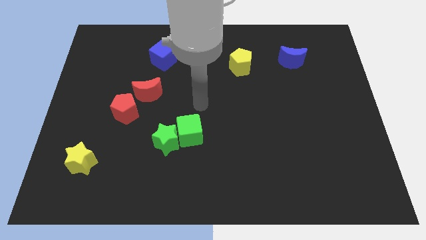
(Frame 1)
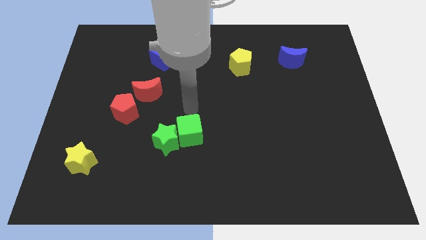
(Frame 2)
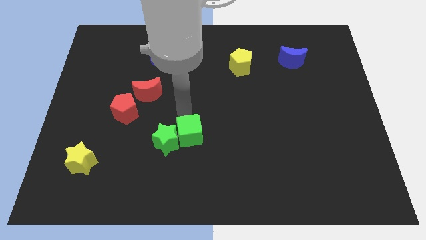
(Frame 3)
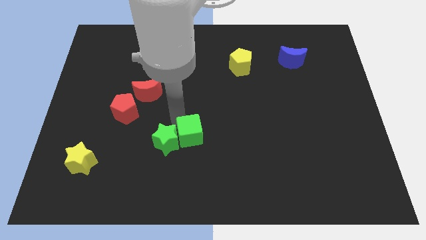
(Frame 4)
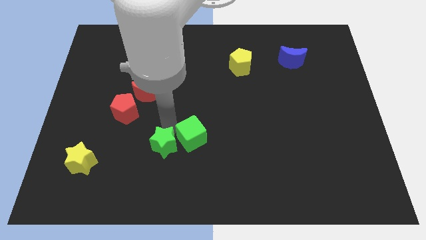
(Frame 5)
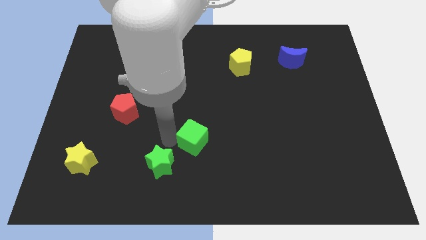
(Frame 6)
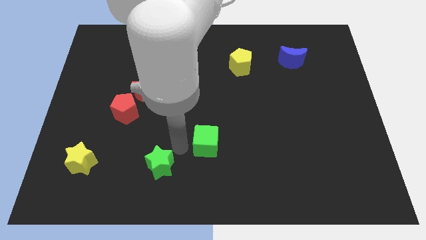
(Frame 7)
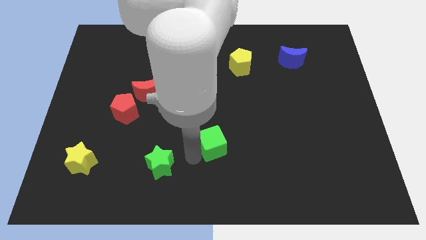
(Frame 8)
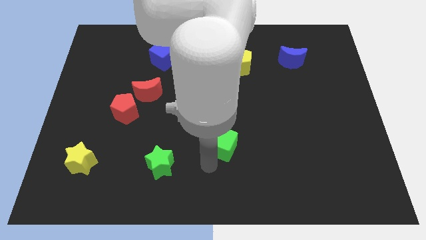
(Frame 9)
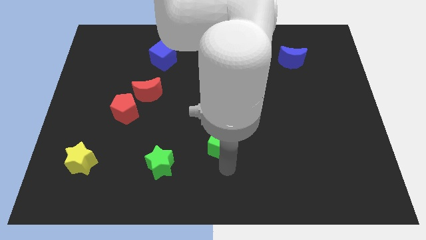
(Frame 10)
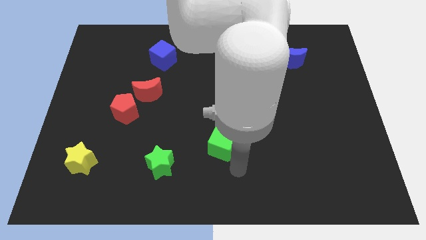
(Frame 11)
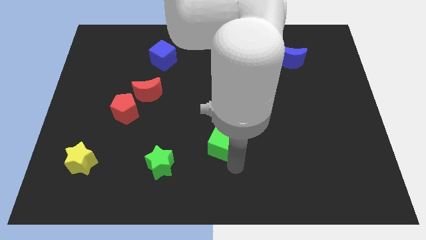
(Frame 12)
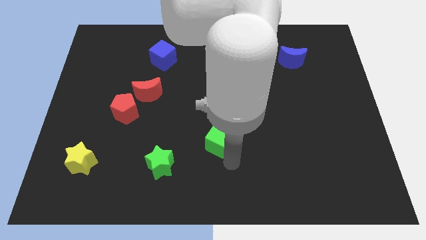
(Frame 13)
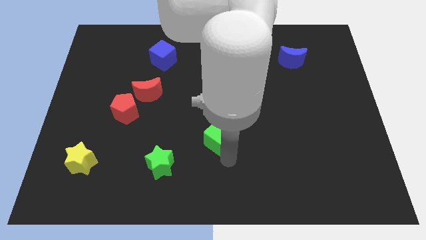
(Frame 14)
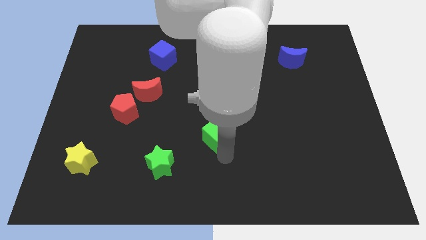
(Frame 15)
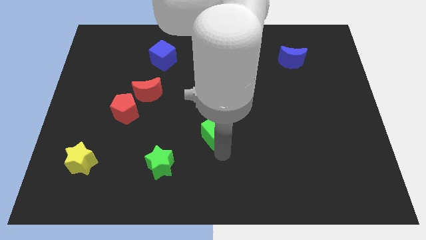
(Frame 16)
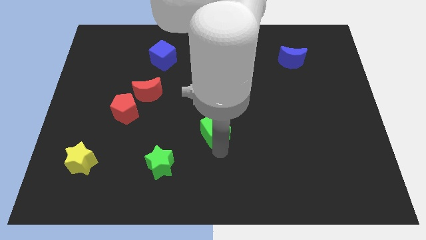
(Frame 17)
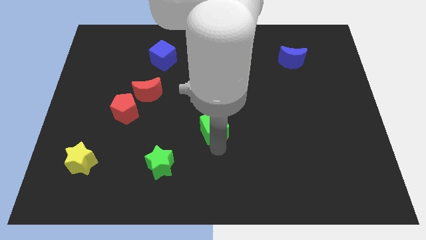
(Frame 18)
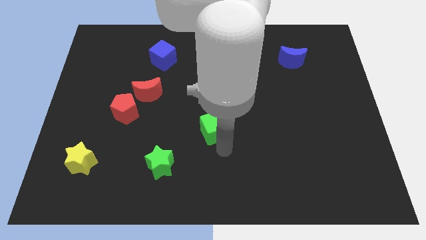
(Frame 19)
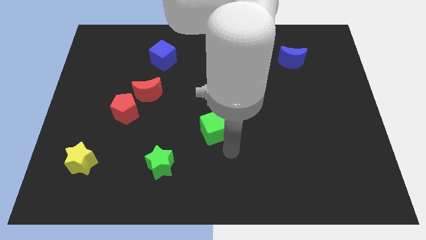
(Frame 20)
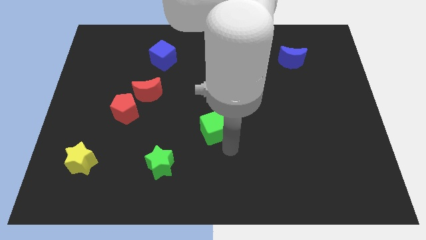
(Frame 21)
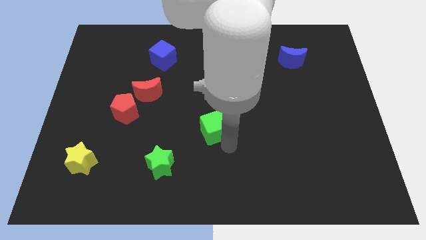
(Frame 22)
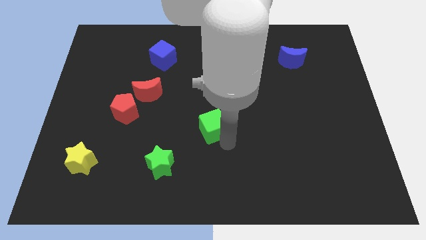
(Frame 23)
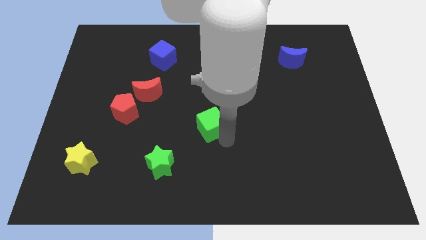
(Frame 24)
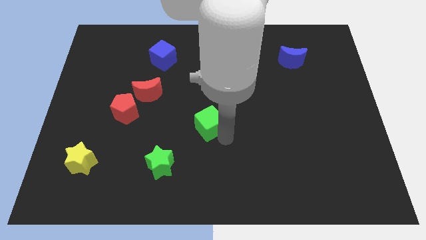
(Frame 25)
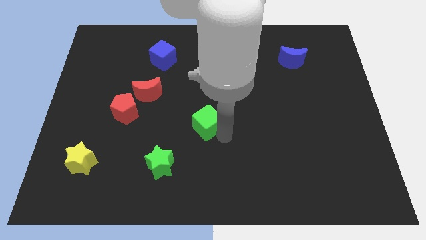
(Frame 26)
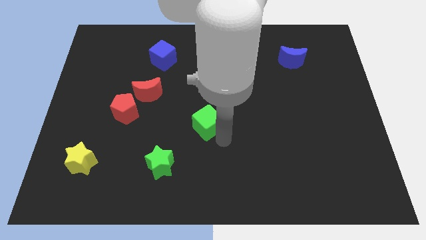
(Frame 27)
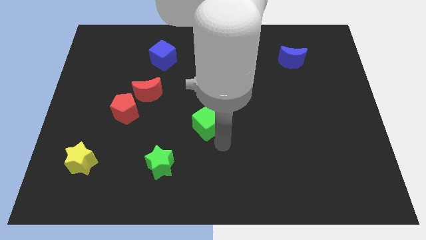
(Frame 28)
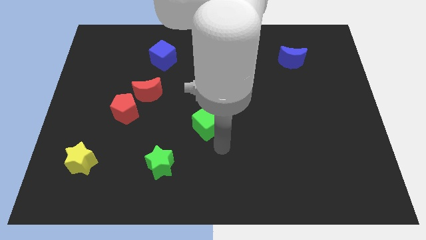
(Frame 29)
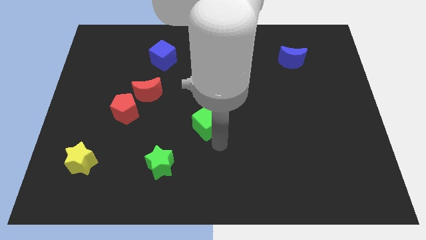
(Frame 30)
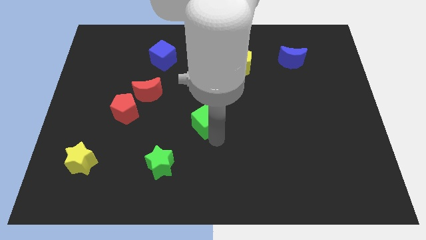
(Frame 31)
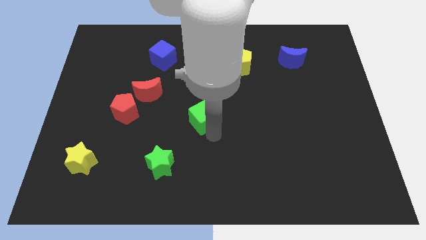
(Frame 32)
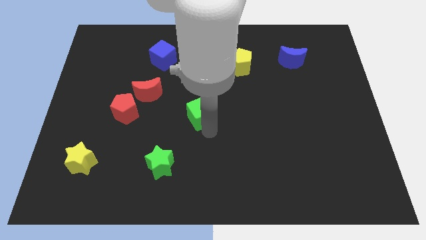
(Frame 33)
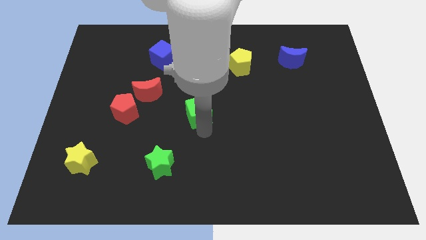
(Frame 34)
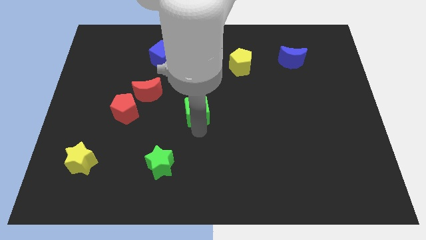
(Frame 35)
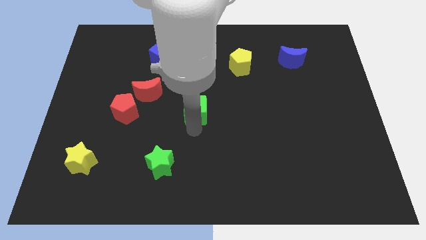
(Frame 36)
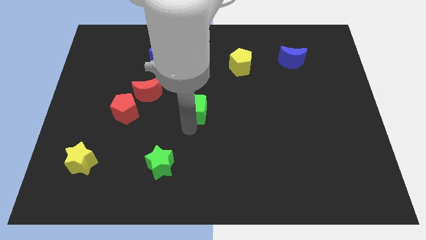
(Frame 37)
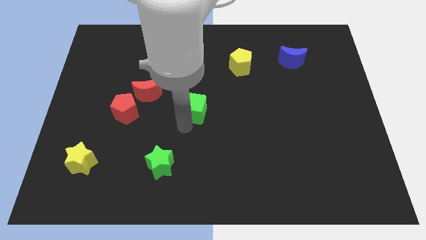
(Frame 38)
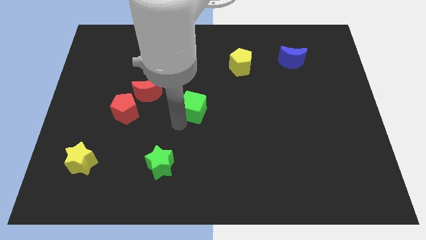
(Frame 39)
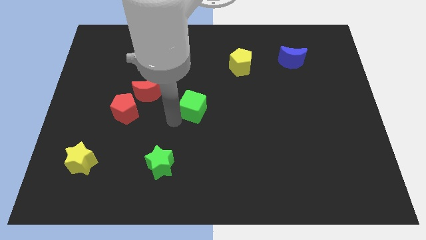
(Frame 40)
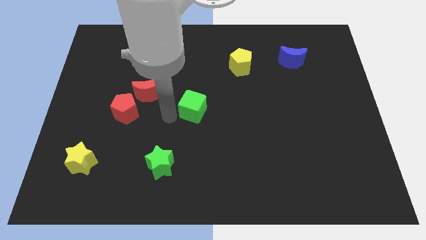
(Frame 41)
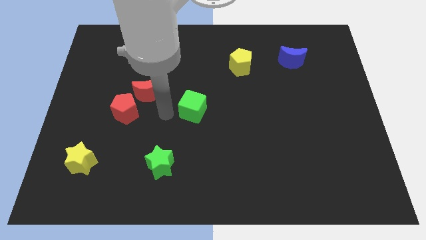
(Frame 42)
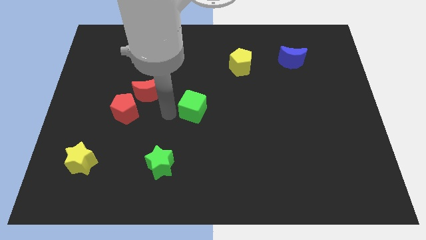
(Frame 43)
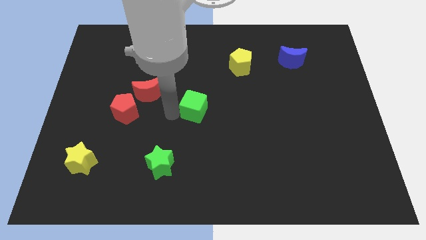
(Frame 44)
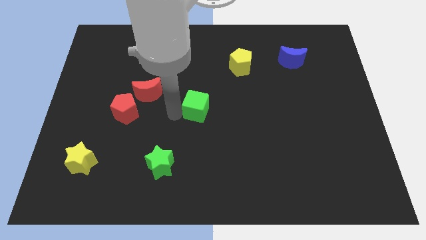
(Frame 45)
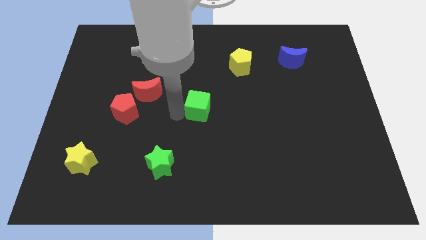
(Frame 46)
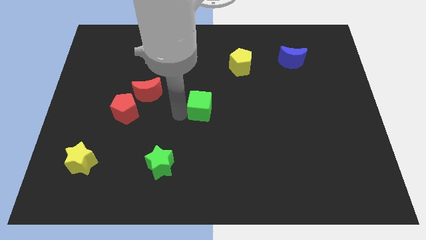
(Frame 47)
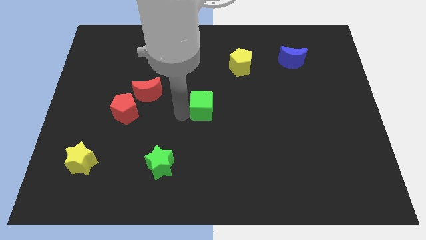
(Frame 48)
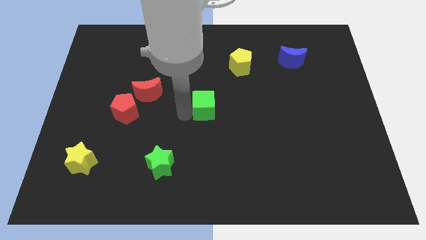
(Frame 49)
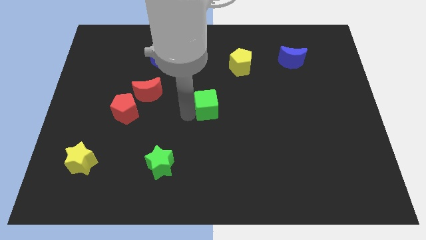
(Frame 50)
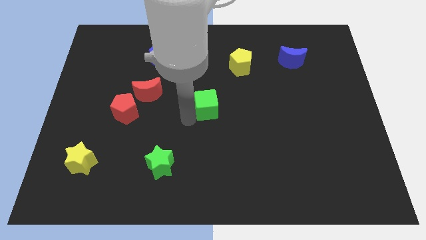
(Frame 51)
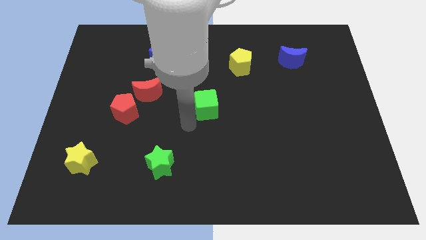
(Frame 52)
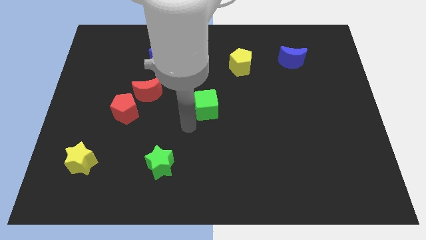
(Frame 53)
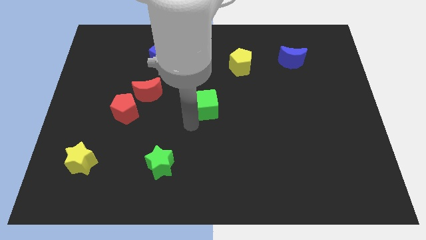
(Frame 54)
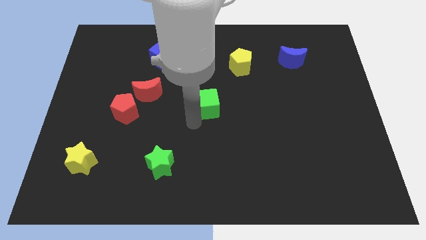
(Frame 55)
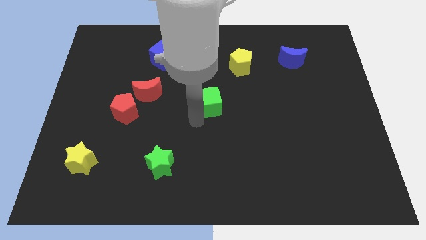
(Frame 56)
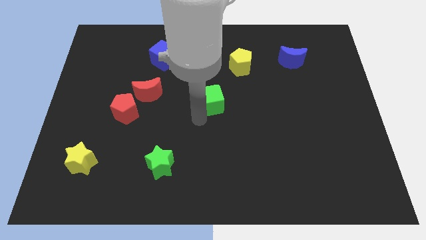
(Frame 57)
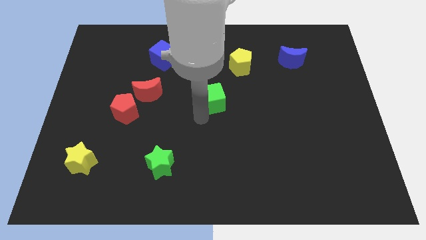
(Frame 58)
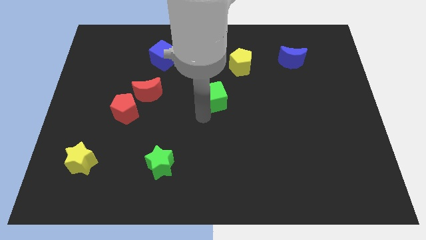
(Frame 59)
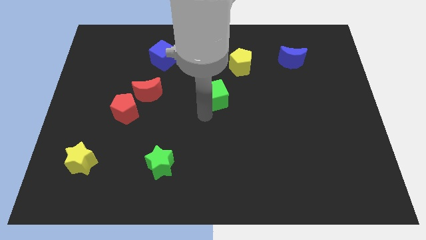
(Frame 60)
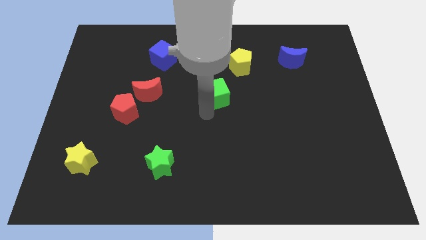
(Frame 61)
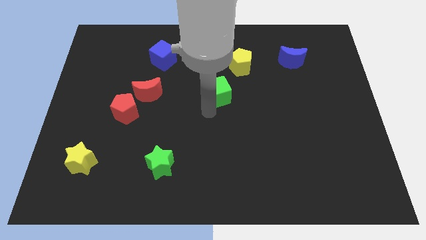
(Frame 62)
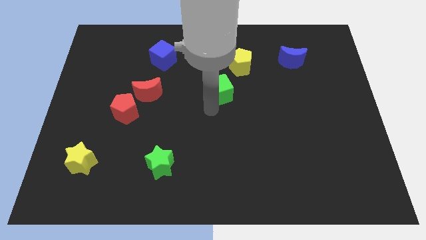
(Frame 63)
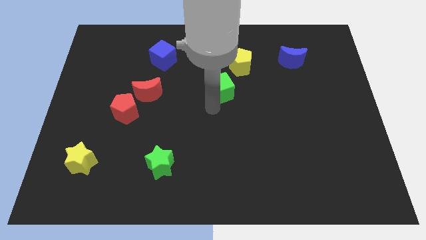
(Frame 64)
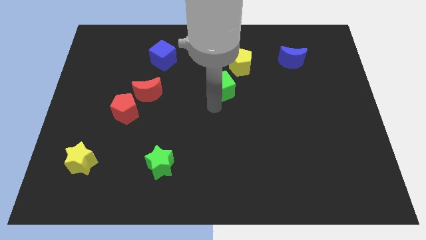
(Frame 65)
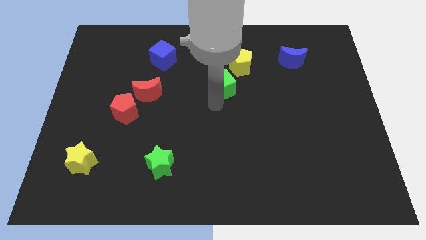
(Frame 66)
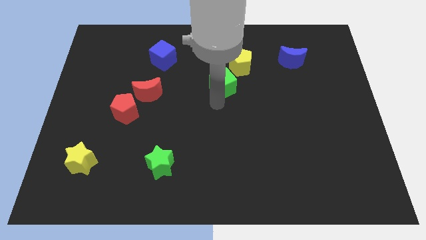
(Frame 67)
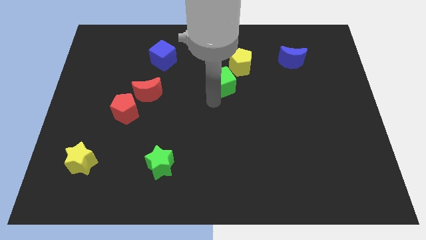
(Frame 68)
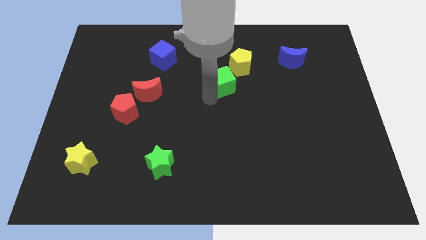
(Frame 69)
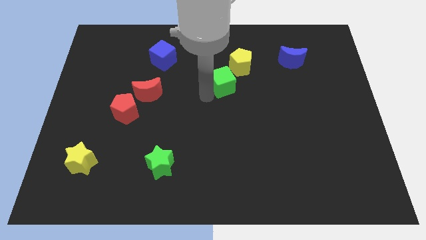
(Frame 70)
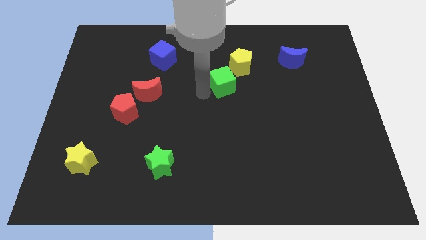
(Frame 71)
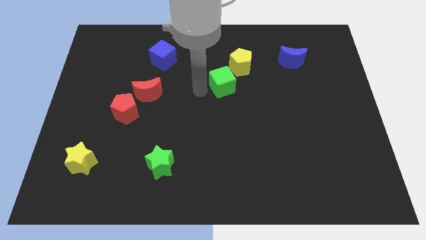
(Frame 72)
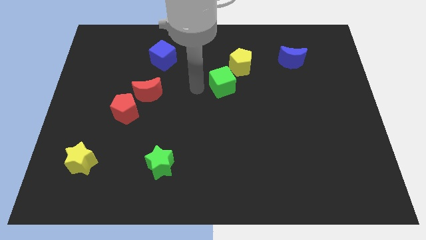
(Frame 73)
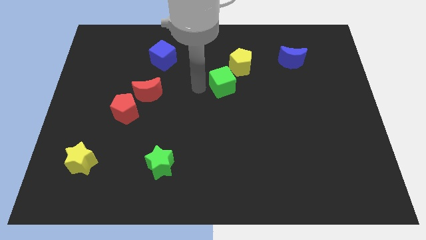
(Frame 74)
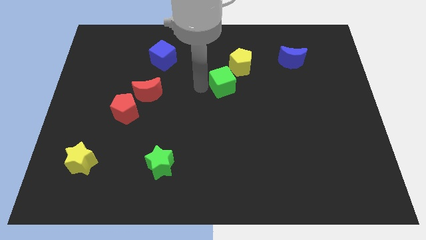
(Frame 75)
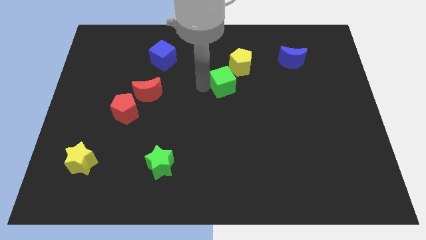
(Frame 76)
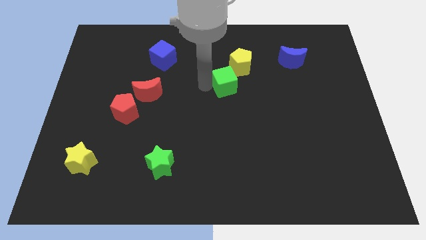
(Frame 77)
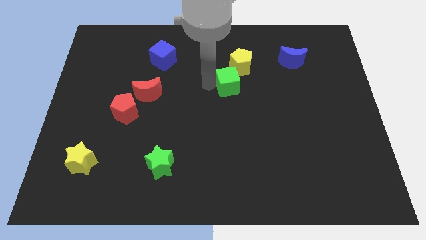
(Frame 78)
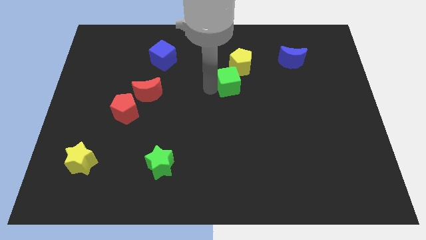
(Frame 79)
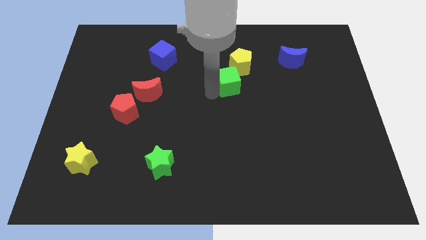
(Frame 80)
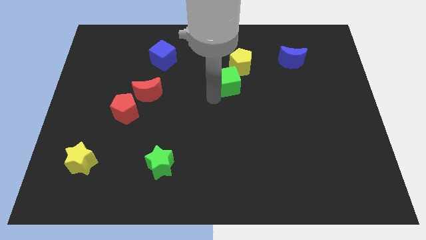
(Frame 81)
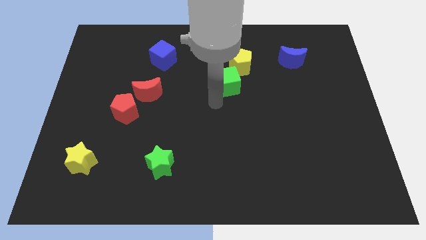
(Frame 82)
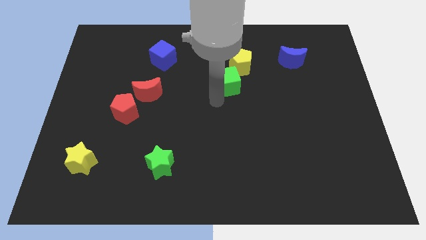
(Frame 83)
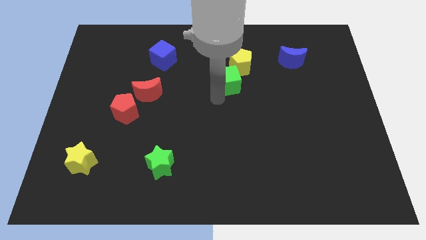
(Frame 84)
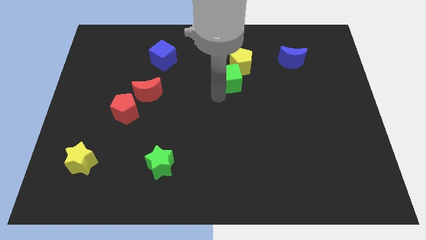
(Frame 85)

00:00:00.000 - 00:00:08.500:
put the green cube close to the yellow pentagon
